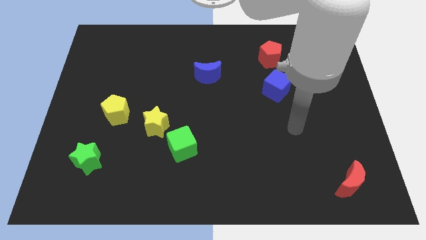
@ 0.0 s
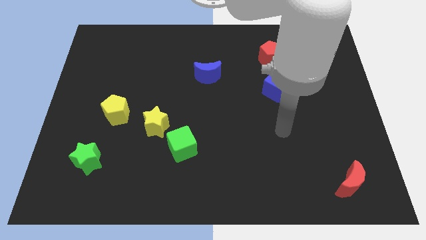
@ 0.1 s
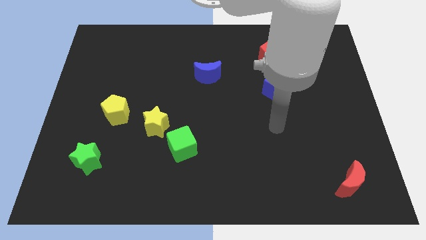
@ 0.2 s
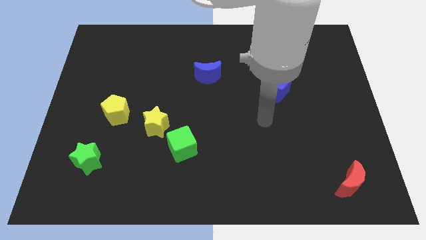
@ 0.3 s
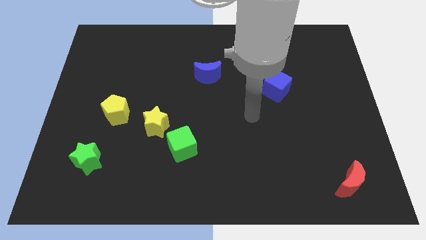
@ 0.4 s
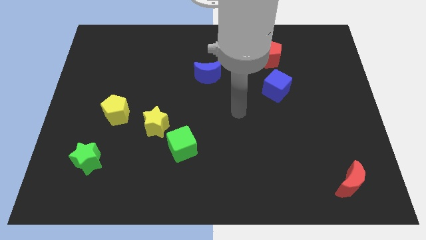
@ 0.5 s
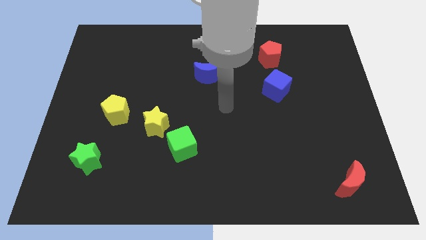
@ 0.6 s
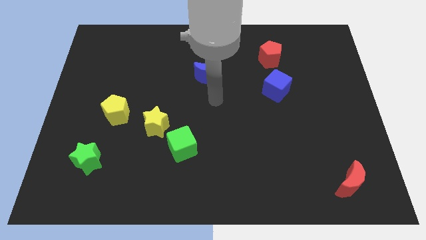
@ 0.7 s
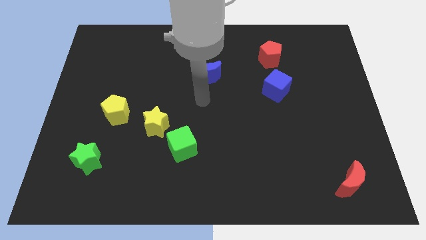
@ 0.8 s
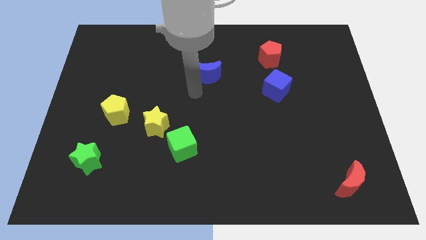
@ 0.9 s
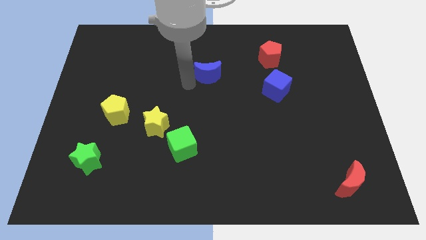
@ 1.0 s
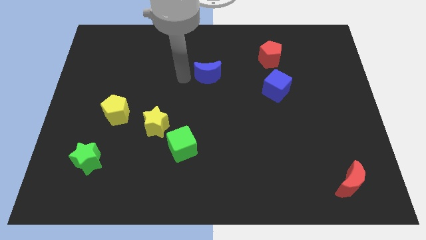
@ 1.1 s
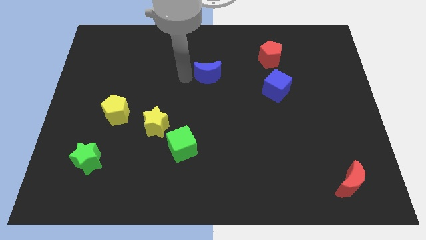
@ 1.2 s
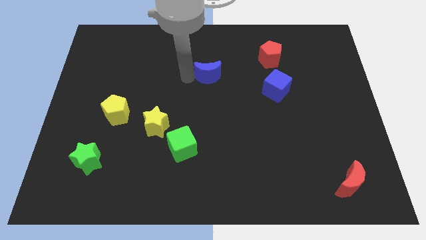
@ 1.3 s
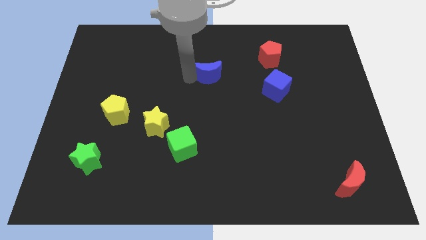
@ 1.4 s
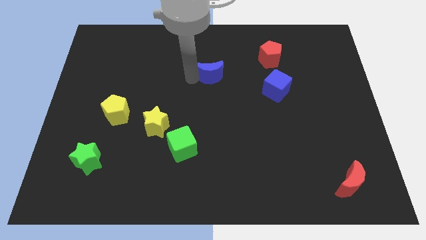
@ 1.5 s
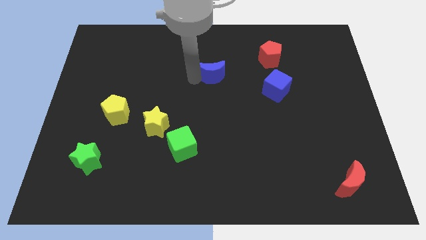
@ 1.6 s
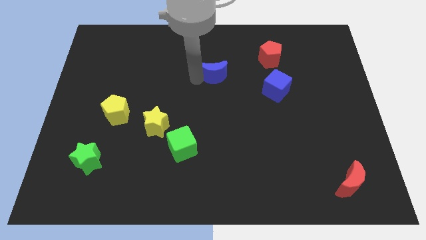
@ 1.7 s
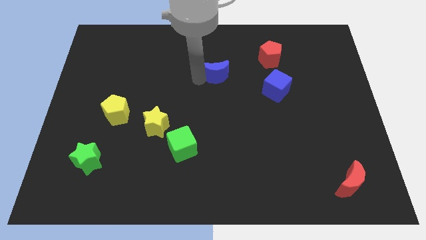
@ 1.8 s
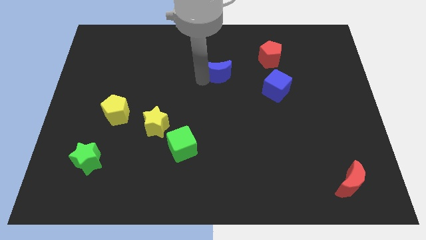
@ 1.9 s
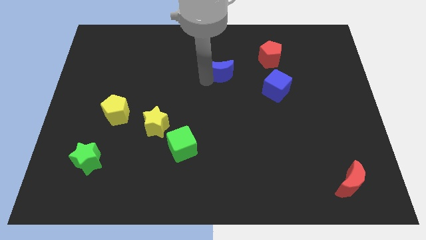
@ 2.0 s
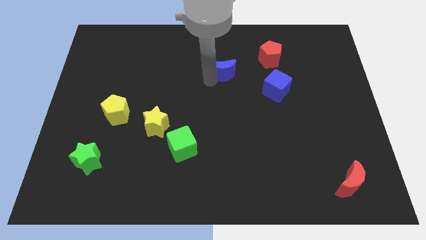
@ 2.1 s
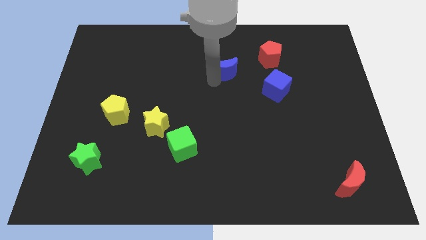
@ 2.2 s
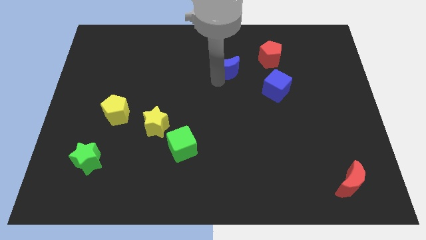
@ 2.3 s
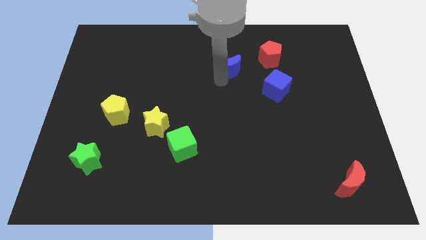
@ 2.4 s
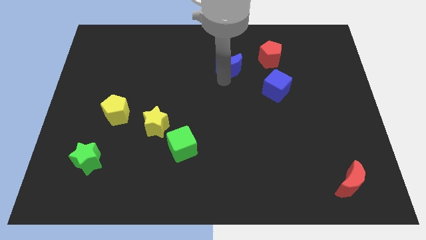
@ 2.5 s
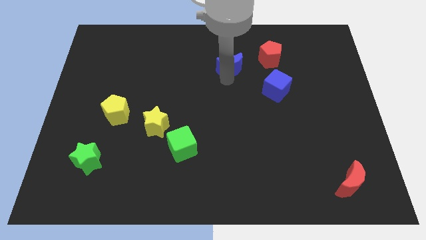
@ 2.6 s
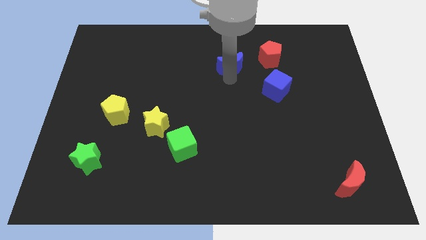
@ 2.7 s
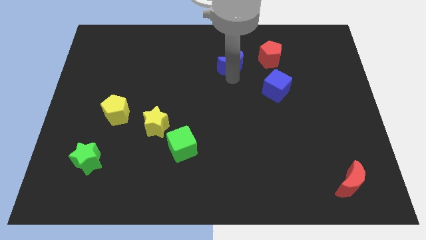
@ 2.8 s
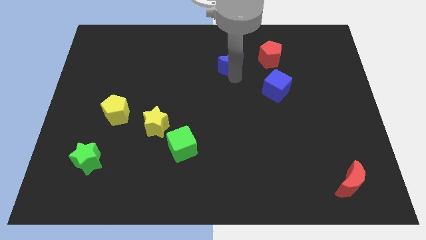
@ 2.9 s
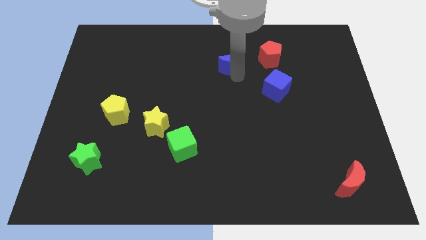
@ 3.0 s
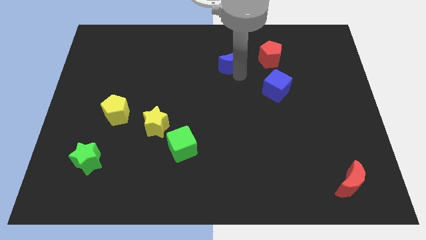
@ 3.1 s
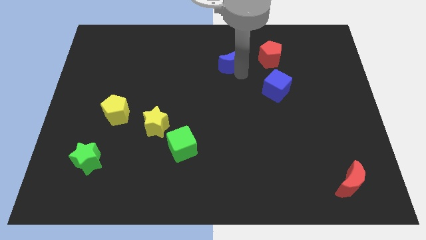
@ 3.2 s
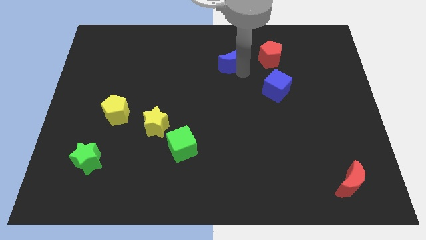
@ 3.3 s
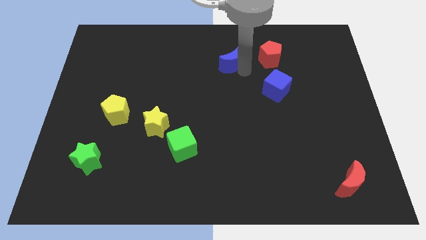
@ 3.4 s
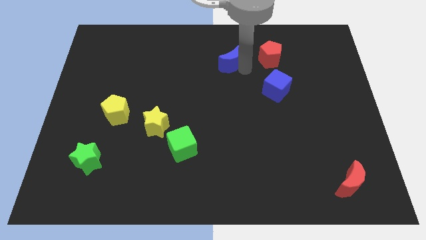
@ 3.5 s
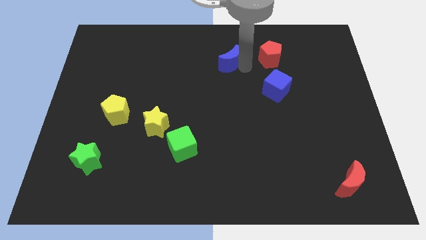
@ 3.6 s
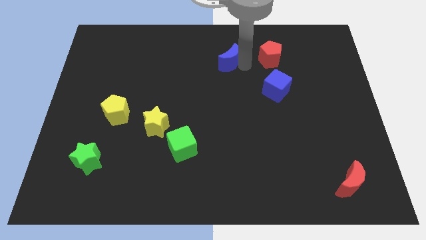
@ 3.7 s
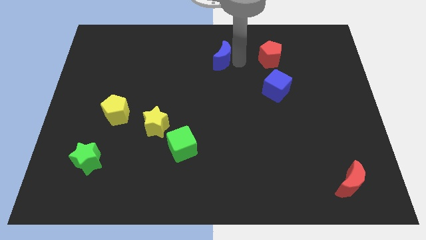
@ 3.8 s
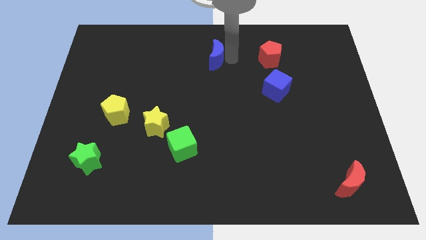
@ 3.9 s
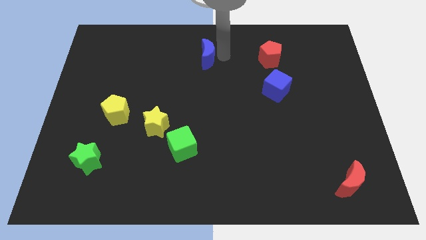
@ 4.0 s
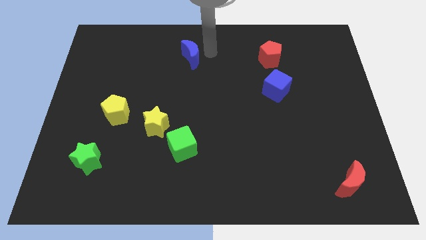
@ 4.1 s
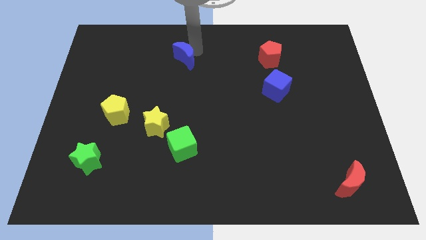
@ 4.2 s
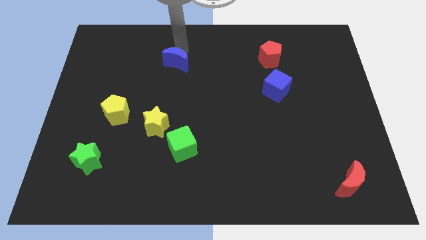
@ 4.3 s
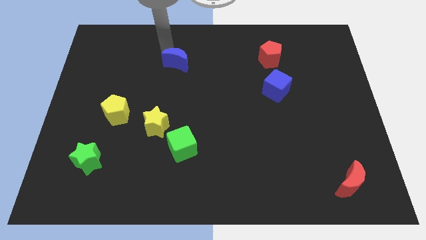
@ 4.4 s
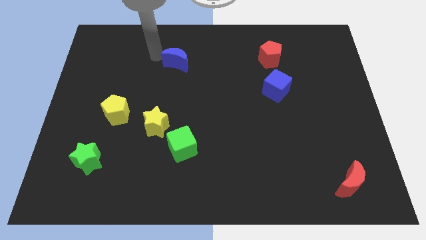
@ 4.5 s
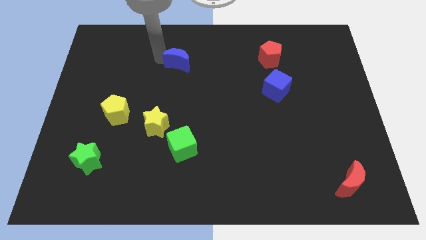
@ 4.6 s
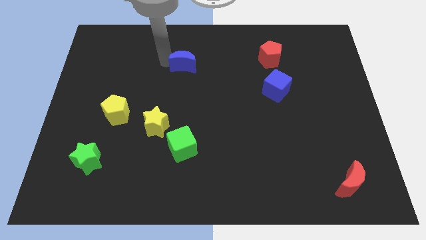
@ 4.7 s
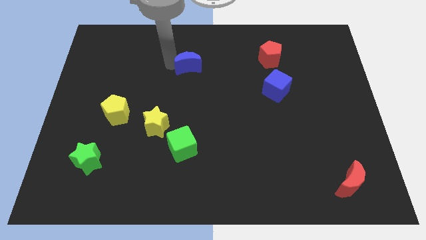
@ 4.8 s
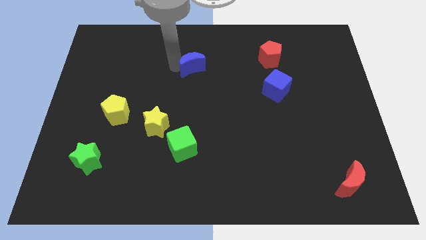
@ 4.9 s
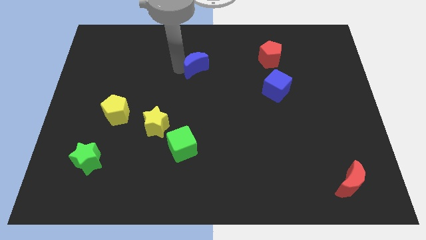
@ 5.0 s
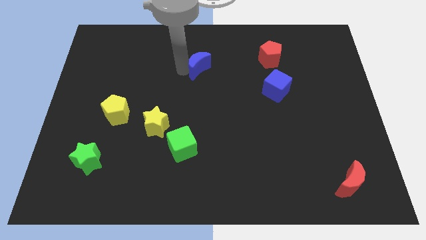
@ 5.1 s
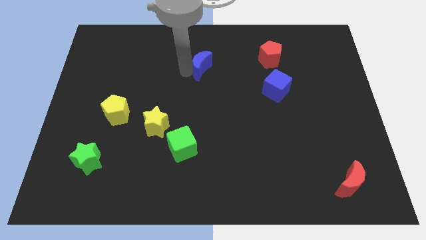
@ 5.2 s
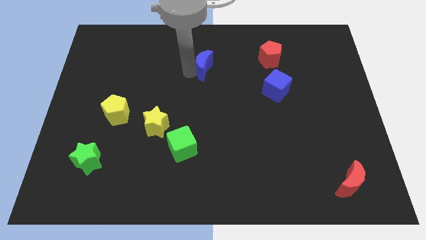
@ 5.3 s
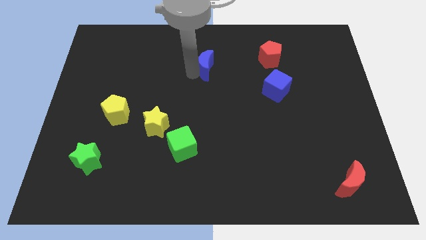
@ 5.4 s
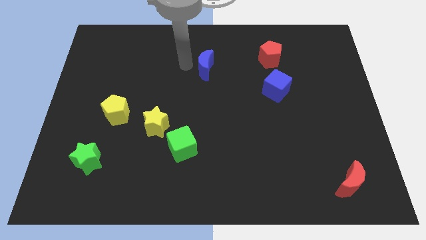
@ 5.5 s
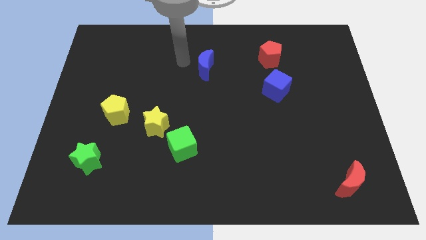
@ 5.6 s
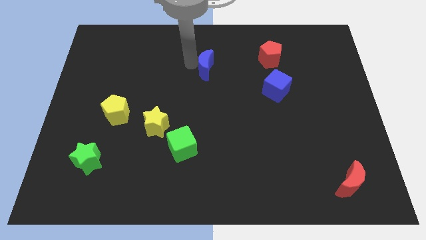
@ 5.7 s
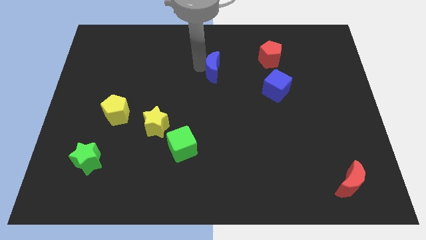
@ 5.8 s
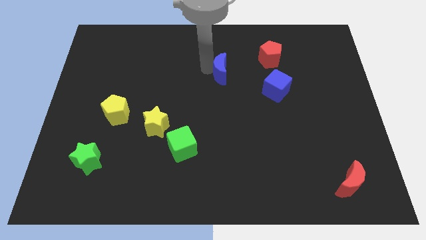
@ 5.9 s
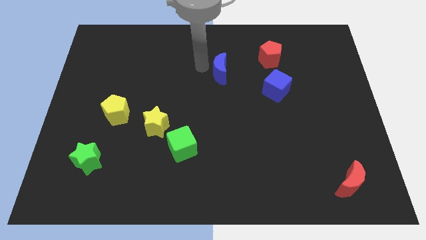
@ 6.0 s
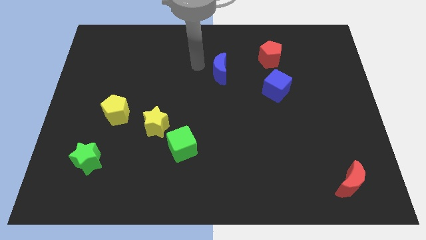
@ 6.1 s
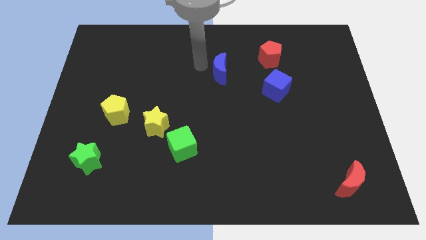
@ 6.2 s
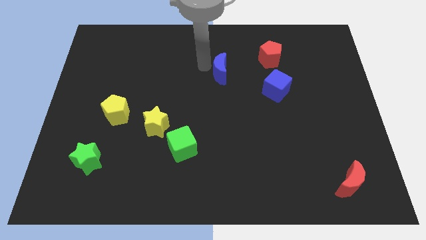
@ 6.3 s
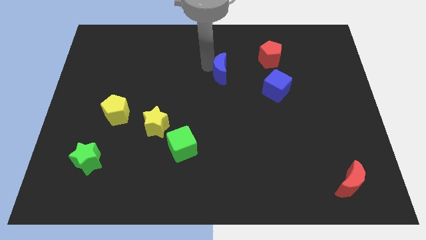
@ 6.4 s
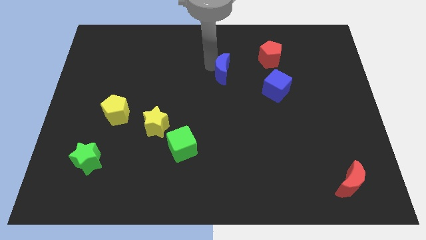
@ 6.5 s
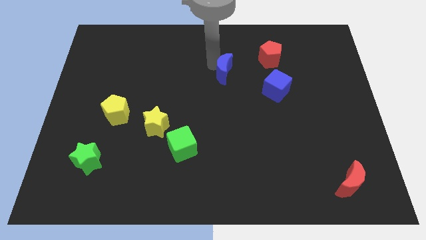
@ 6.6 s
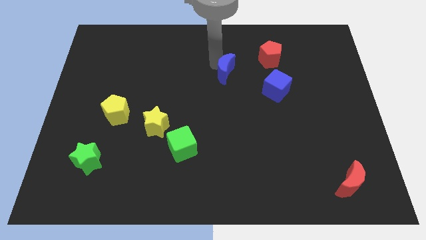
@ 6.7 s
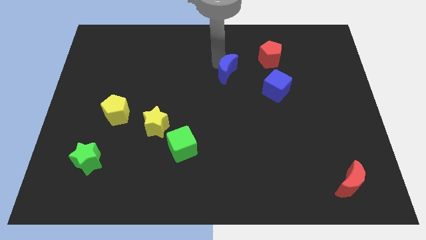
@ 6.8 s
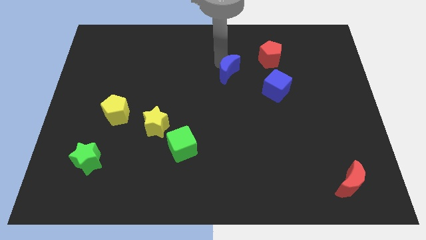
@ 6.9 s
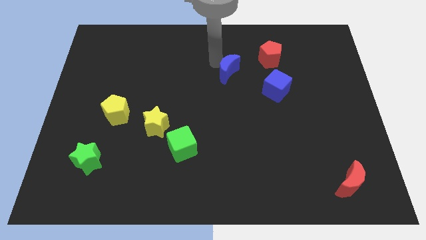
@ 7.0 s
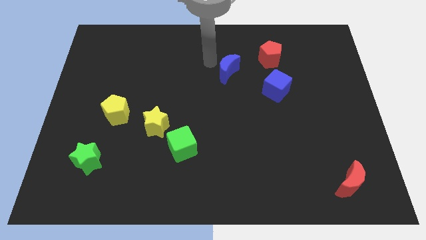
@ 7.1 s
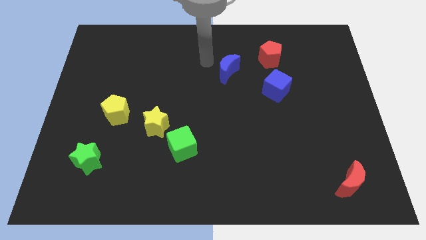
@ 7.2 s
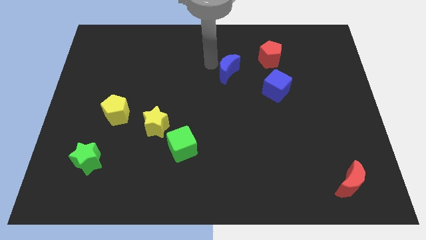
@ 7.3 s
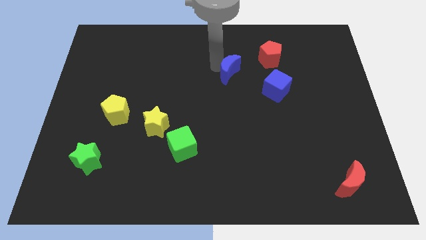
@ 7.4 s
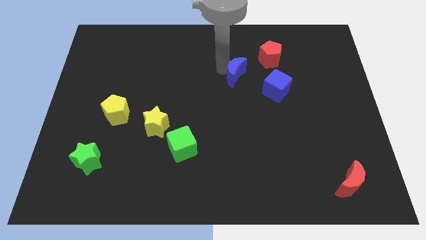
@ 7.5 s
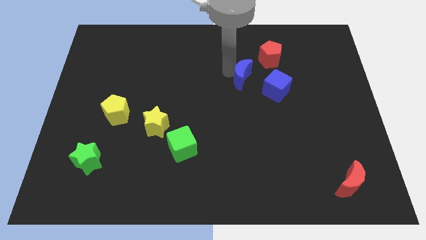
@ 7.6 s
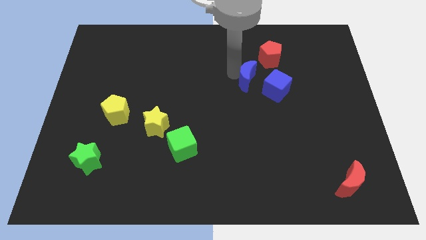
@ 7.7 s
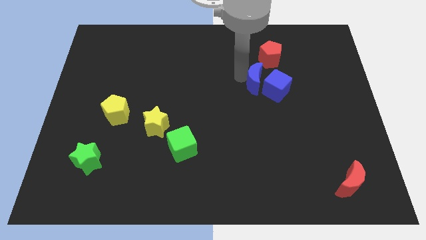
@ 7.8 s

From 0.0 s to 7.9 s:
slide the blue moon to the blue cube
